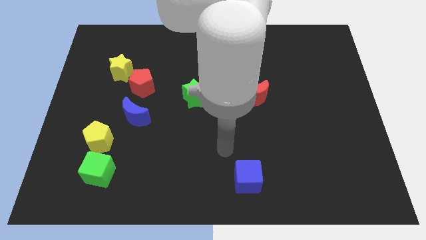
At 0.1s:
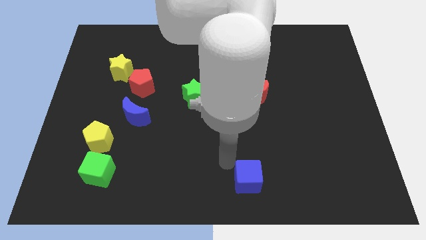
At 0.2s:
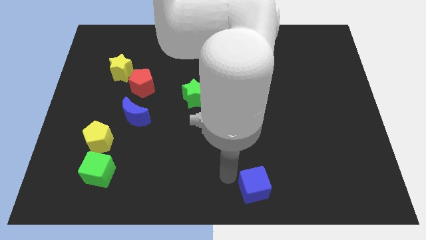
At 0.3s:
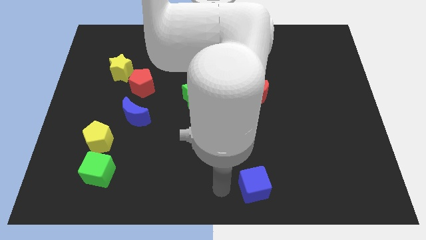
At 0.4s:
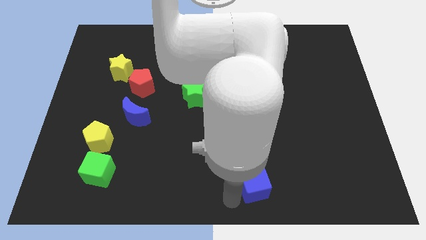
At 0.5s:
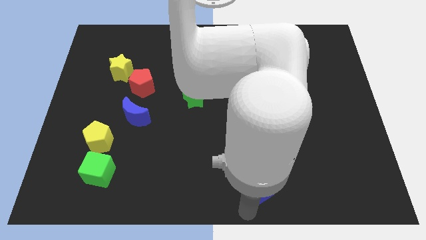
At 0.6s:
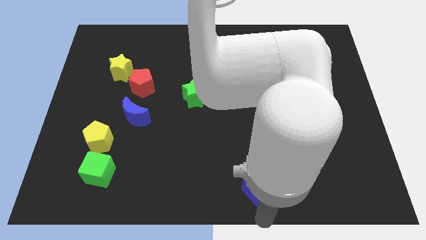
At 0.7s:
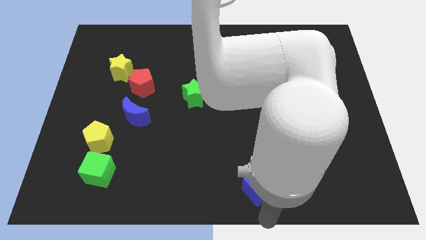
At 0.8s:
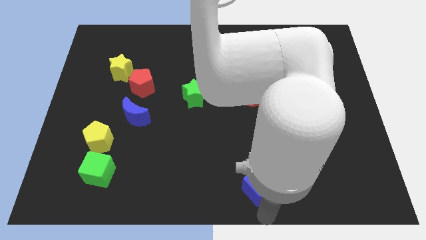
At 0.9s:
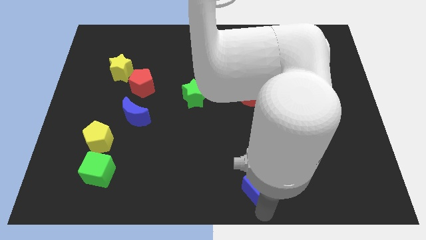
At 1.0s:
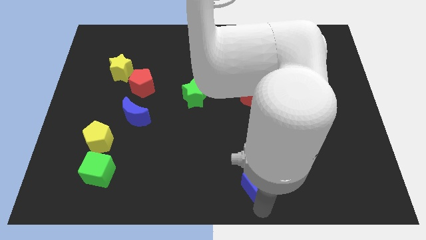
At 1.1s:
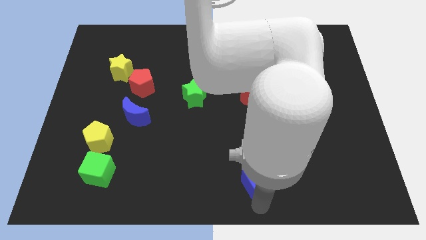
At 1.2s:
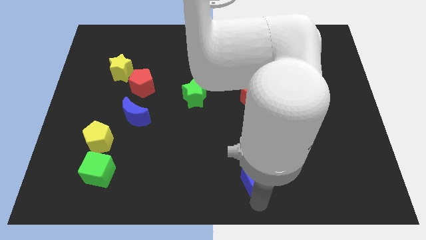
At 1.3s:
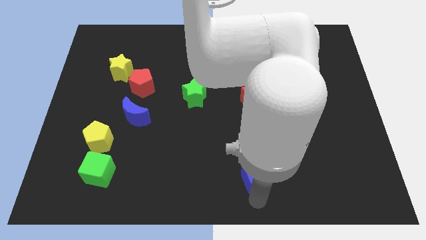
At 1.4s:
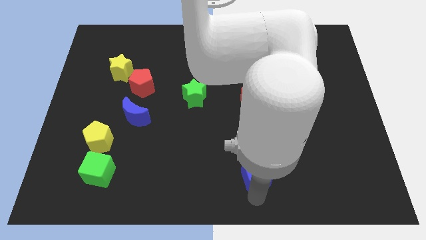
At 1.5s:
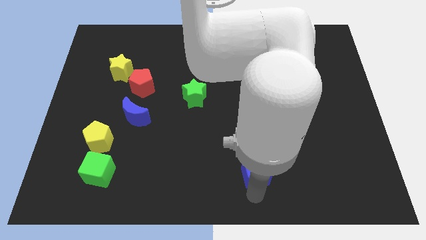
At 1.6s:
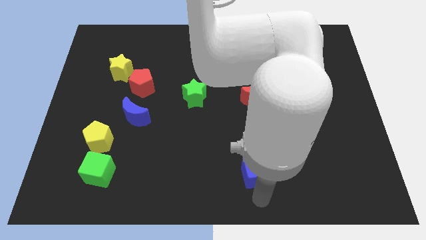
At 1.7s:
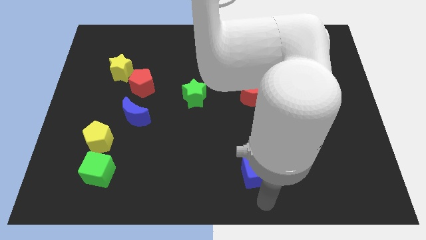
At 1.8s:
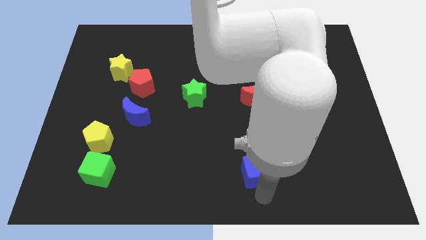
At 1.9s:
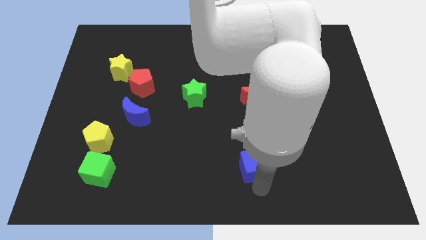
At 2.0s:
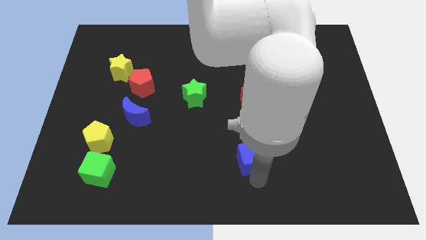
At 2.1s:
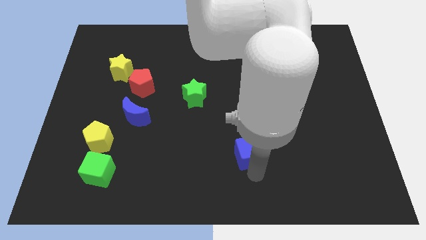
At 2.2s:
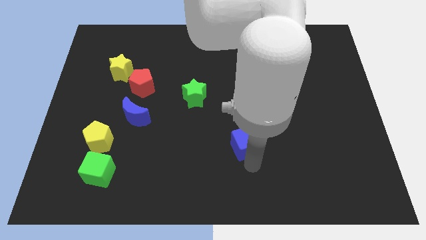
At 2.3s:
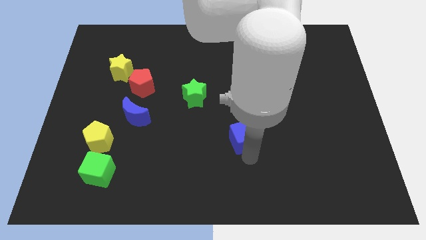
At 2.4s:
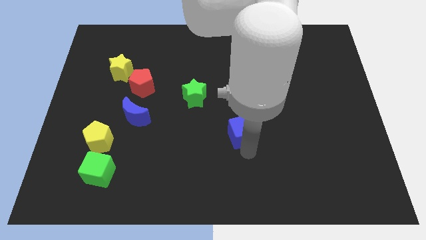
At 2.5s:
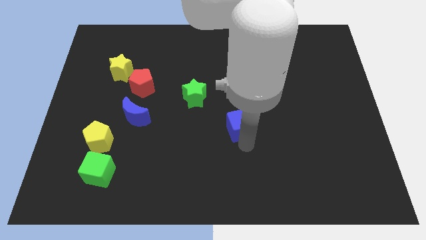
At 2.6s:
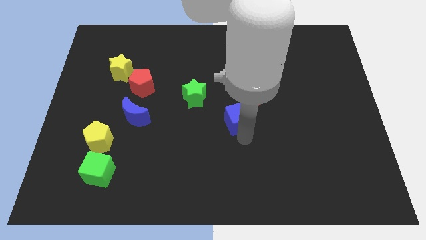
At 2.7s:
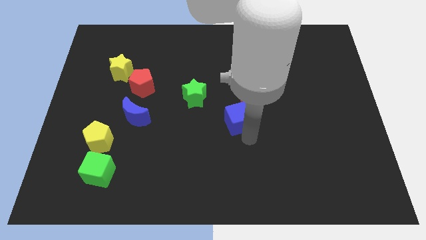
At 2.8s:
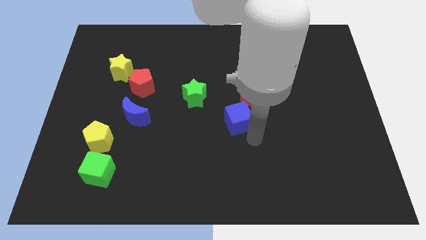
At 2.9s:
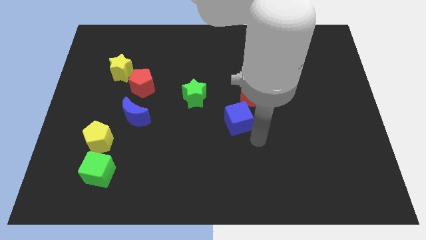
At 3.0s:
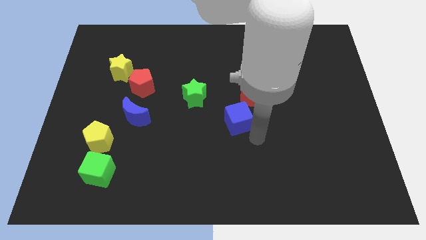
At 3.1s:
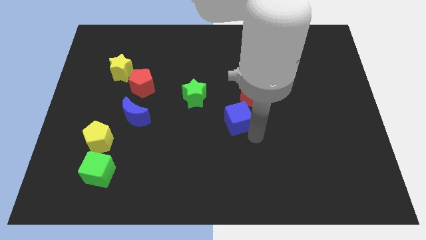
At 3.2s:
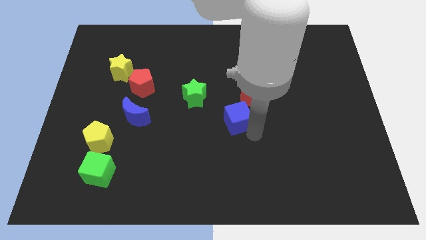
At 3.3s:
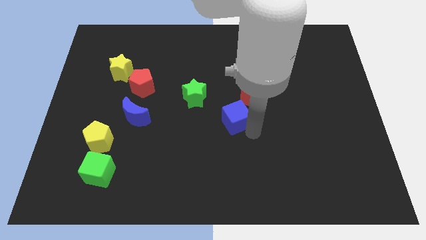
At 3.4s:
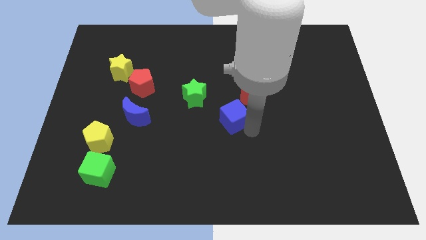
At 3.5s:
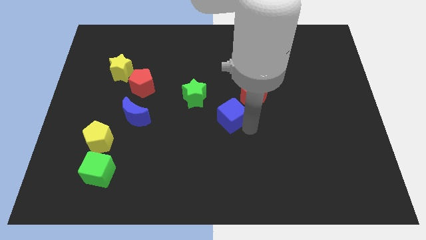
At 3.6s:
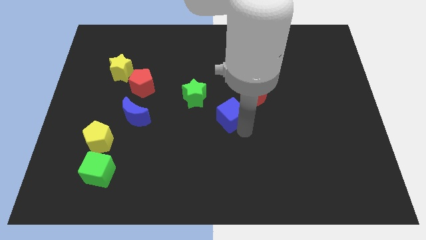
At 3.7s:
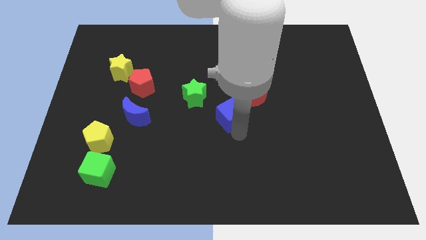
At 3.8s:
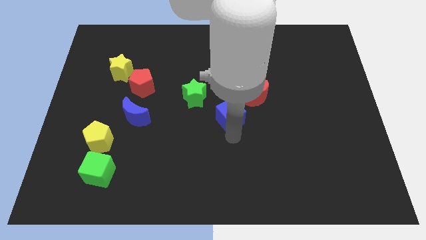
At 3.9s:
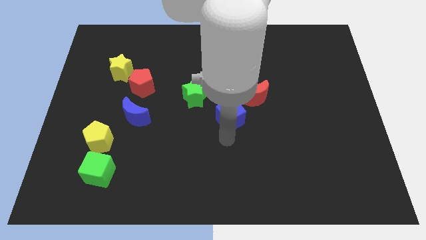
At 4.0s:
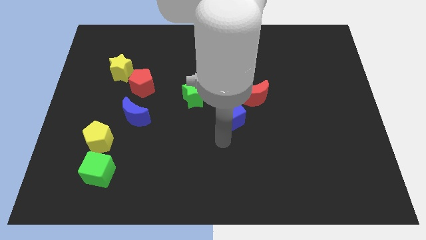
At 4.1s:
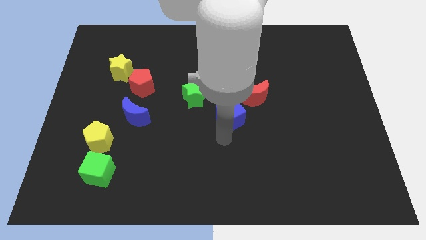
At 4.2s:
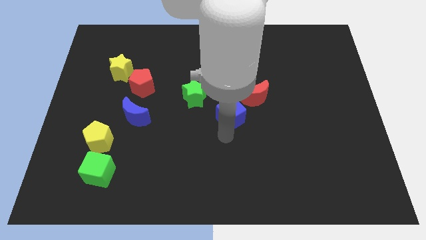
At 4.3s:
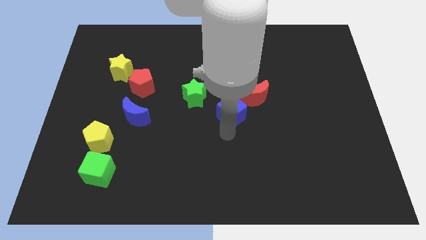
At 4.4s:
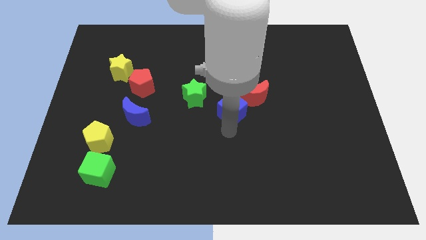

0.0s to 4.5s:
move the blue cube to the right of the green star

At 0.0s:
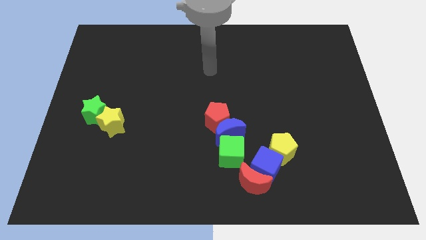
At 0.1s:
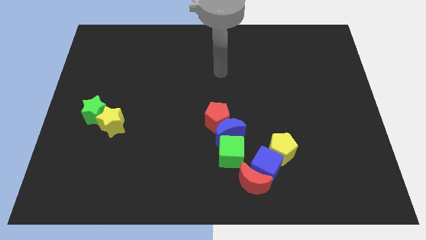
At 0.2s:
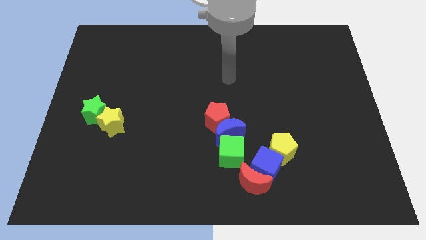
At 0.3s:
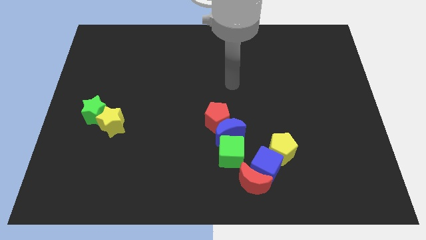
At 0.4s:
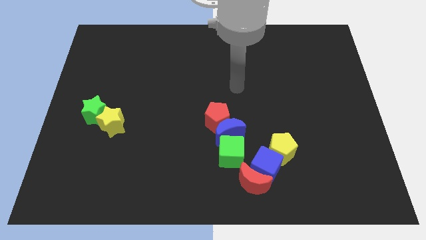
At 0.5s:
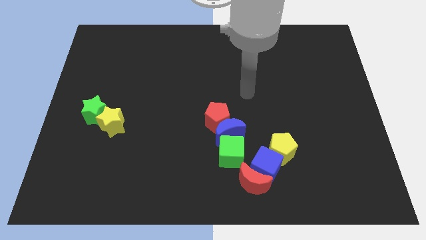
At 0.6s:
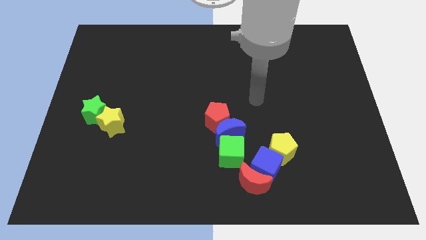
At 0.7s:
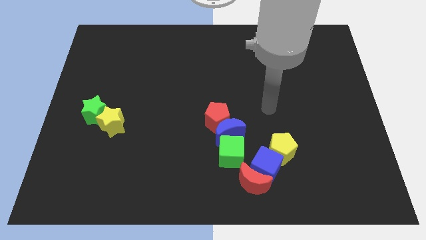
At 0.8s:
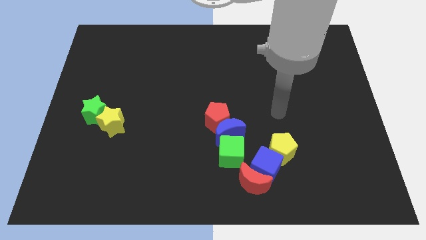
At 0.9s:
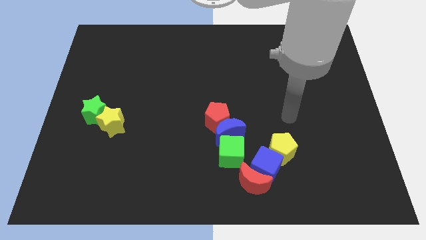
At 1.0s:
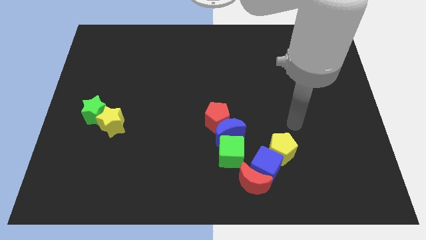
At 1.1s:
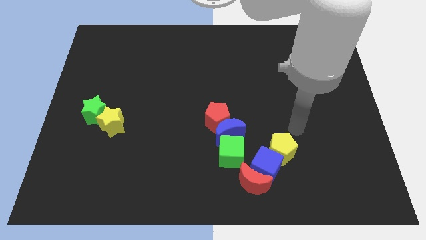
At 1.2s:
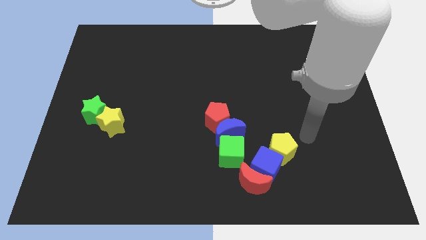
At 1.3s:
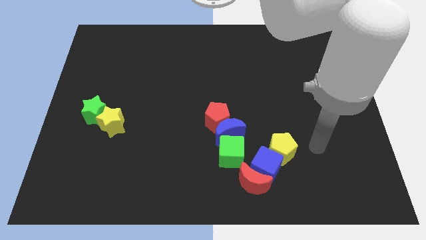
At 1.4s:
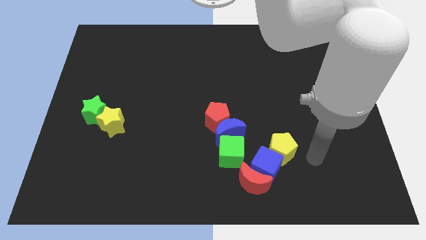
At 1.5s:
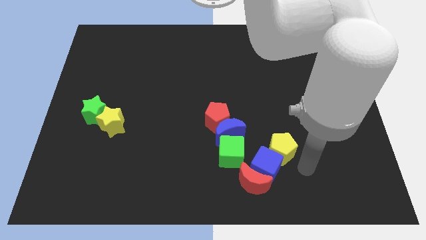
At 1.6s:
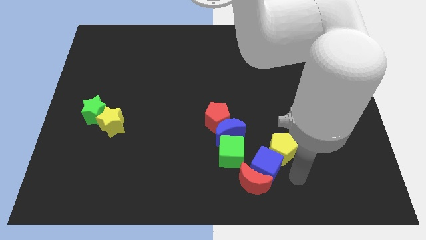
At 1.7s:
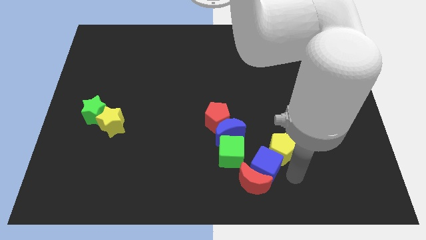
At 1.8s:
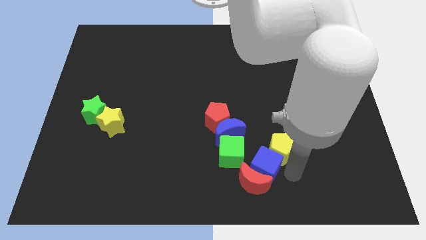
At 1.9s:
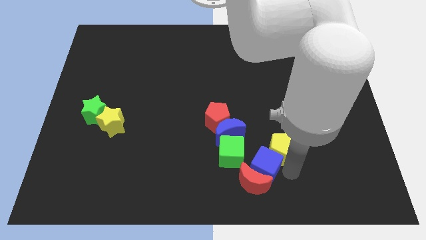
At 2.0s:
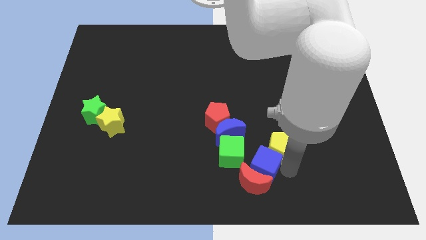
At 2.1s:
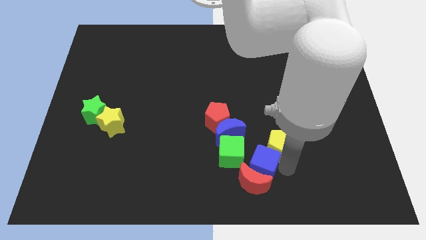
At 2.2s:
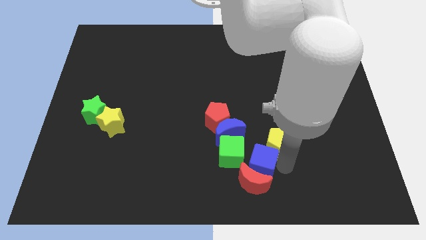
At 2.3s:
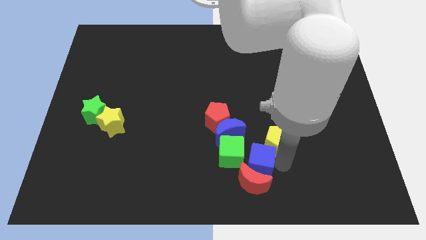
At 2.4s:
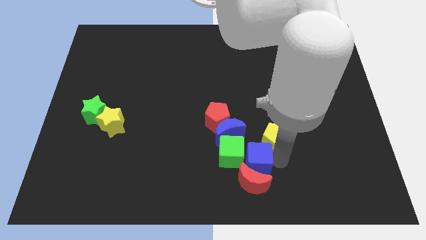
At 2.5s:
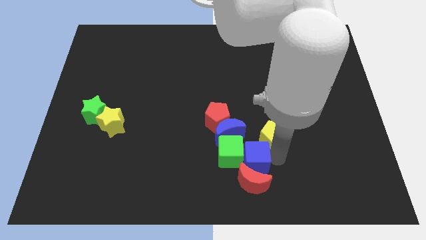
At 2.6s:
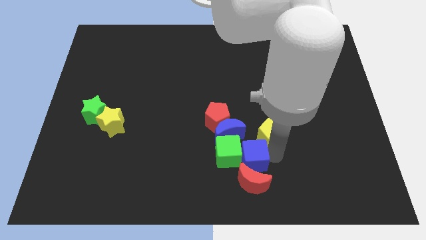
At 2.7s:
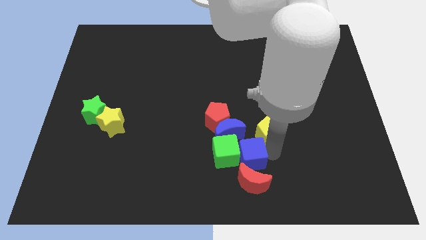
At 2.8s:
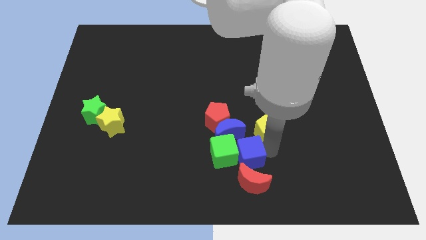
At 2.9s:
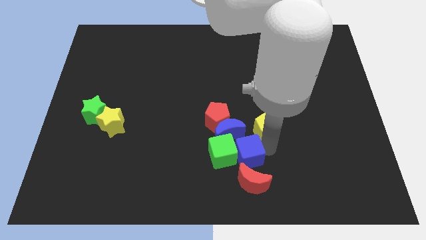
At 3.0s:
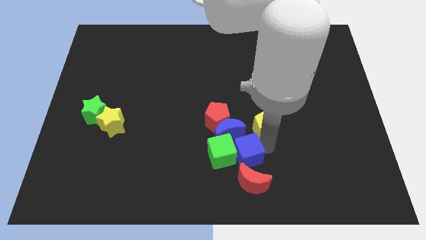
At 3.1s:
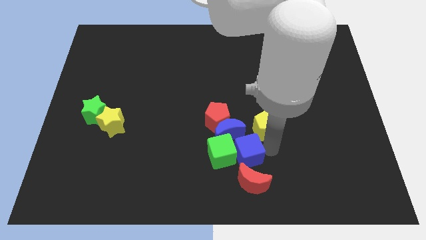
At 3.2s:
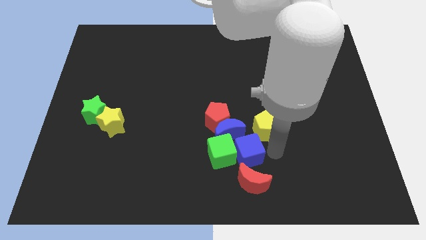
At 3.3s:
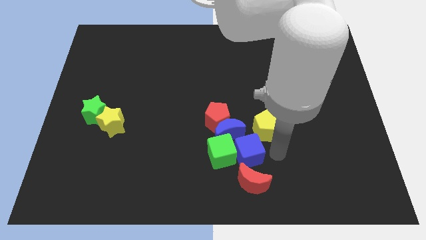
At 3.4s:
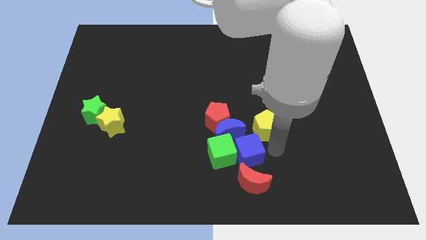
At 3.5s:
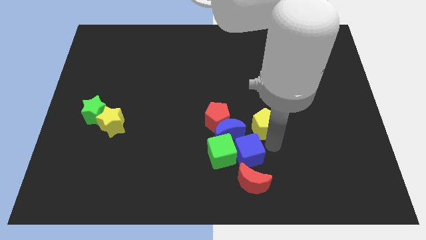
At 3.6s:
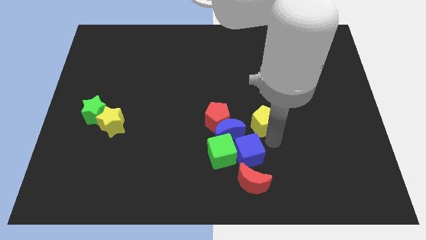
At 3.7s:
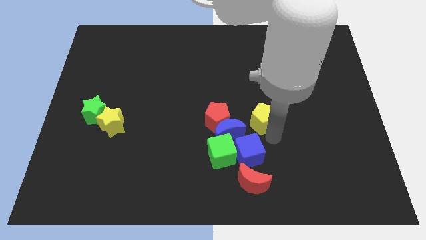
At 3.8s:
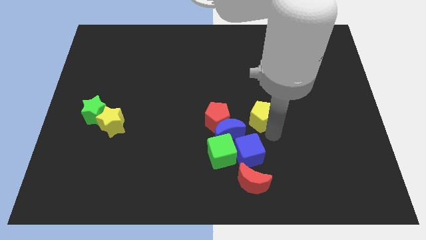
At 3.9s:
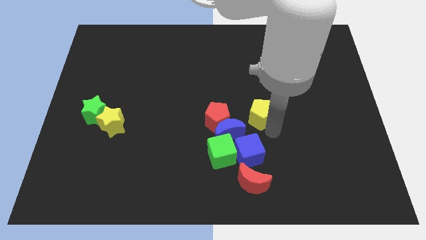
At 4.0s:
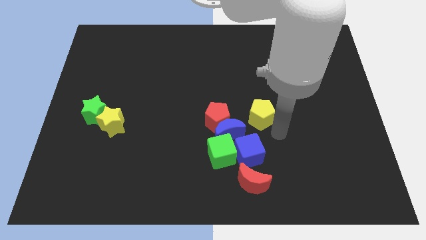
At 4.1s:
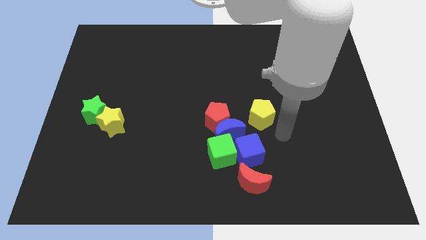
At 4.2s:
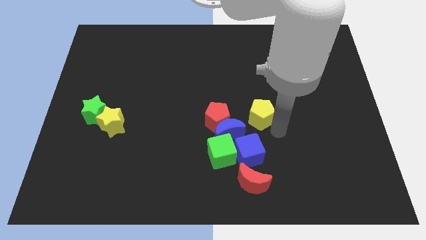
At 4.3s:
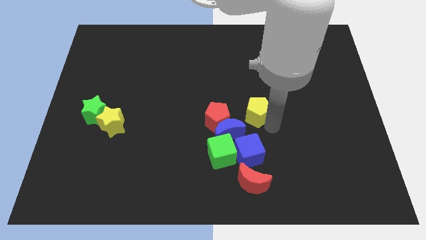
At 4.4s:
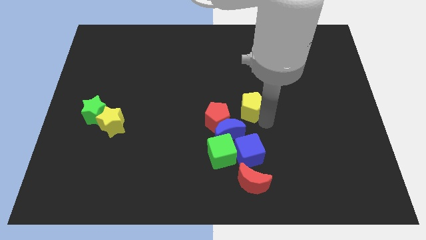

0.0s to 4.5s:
put the yellow pentagon to the top right of the red pentagon
